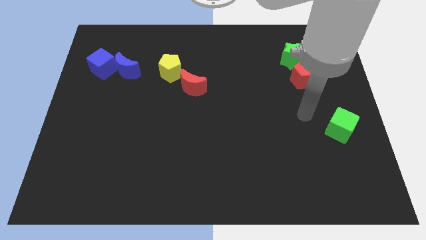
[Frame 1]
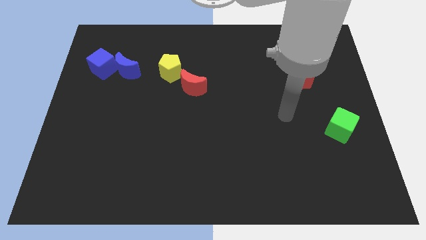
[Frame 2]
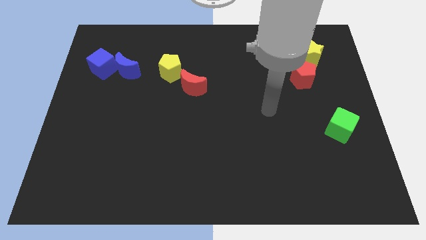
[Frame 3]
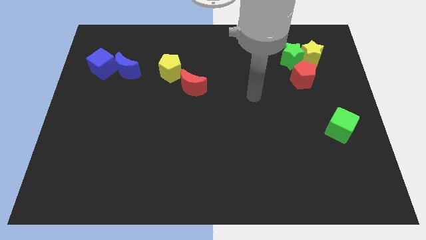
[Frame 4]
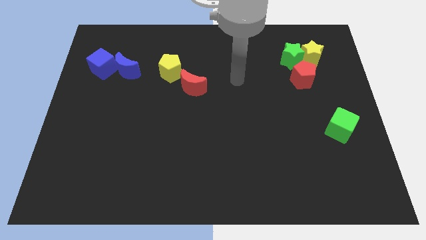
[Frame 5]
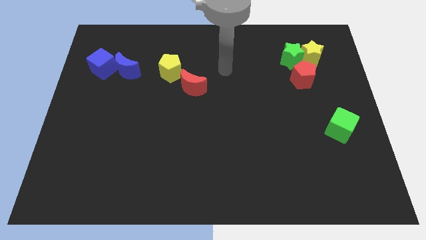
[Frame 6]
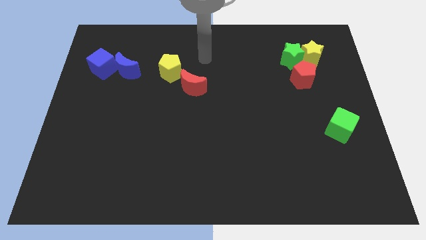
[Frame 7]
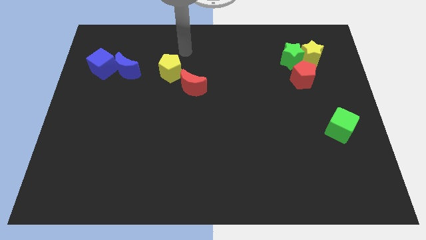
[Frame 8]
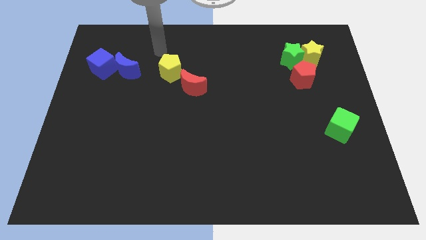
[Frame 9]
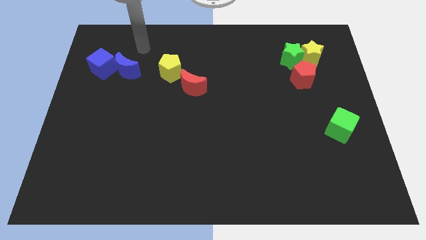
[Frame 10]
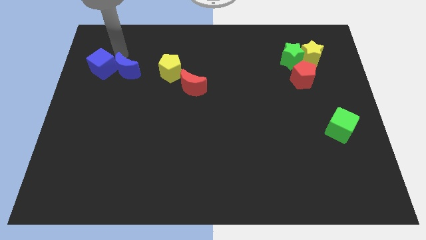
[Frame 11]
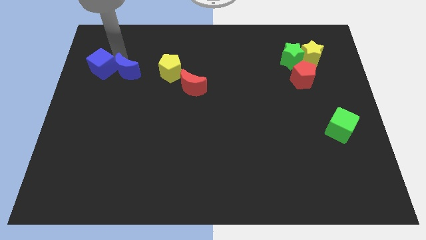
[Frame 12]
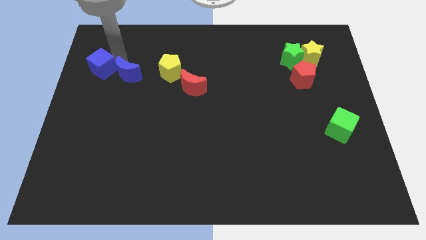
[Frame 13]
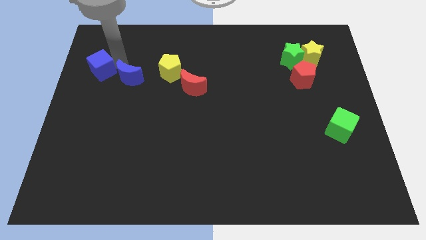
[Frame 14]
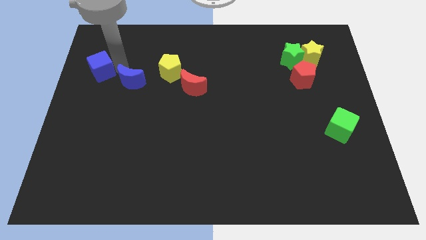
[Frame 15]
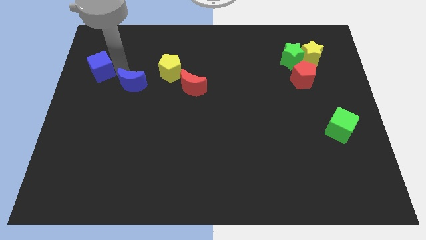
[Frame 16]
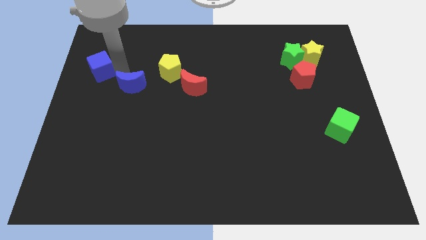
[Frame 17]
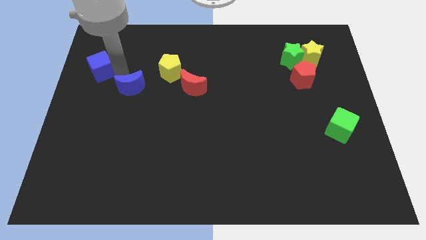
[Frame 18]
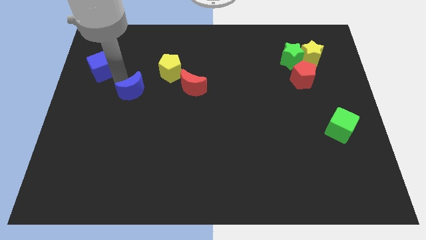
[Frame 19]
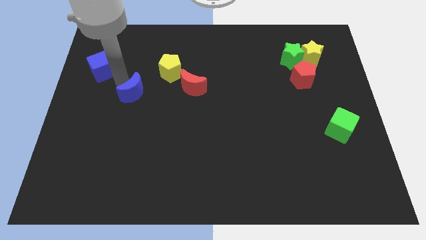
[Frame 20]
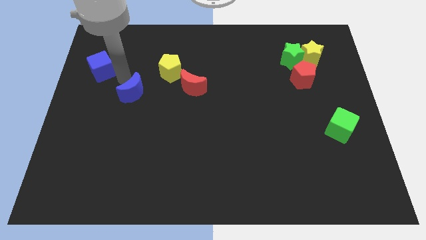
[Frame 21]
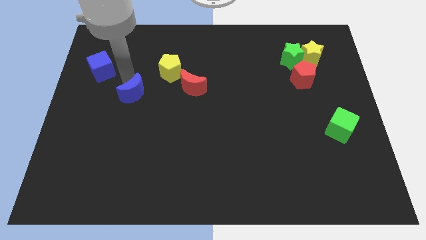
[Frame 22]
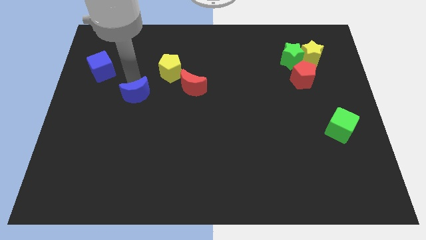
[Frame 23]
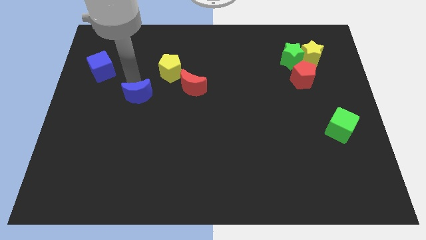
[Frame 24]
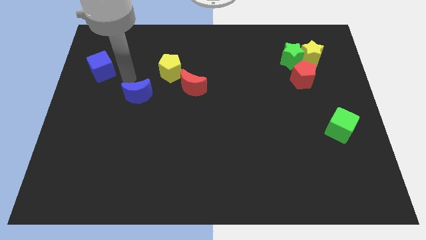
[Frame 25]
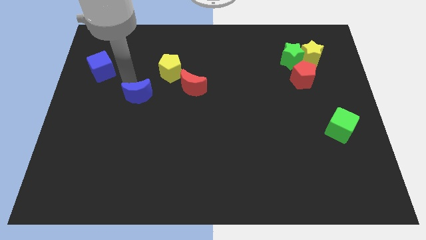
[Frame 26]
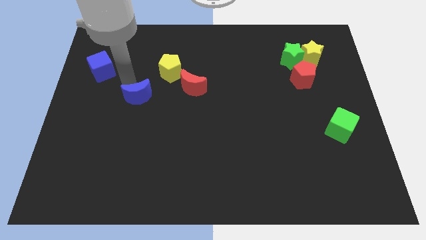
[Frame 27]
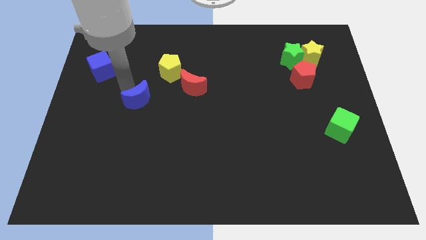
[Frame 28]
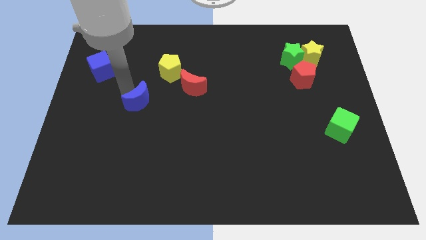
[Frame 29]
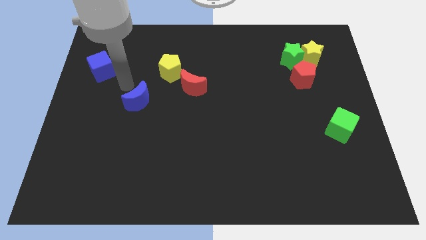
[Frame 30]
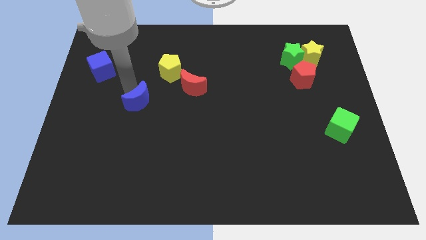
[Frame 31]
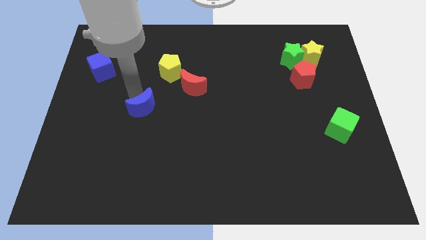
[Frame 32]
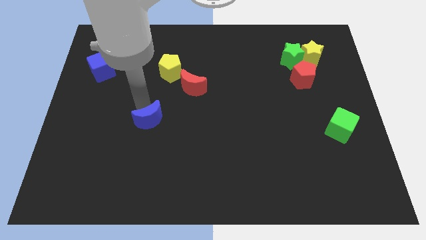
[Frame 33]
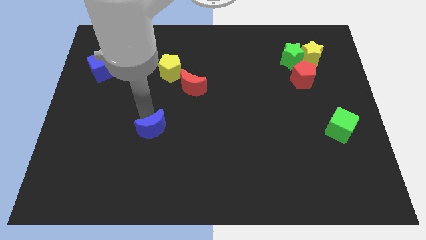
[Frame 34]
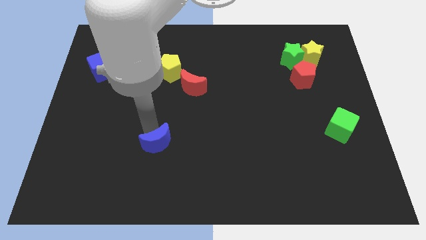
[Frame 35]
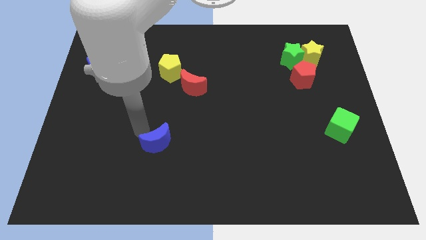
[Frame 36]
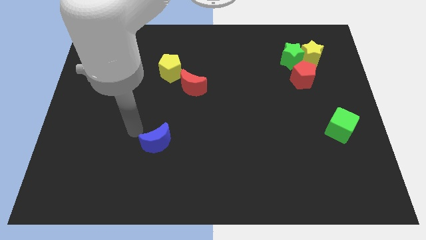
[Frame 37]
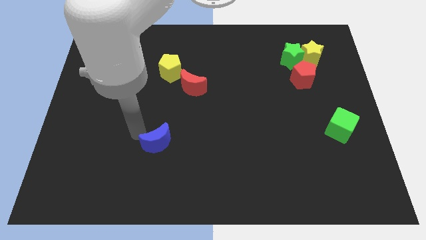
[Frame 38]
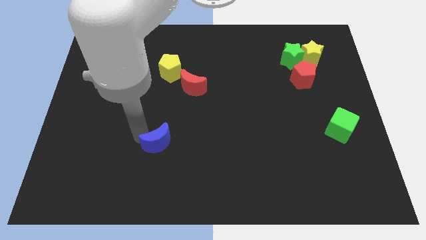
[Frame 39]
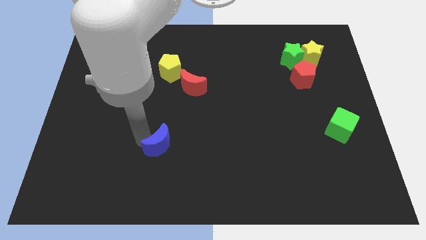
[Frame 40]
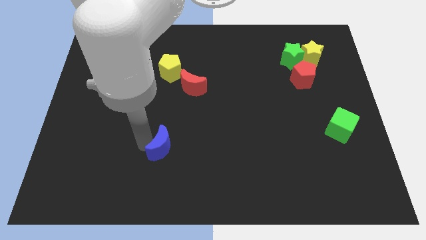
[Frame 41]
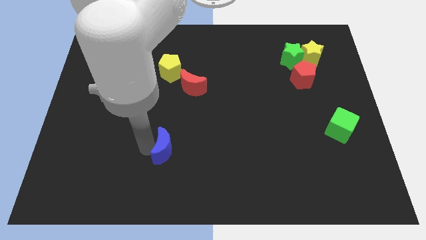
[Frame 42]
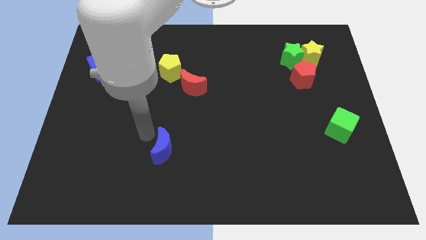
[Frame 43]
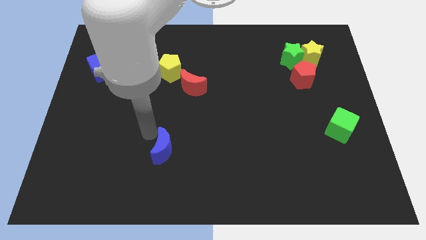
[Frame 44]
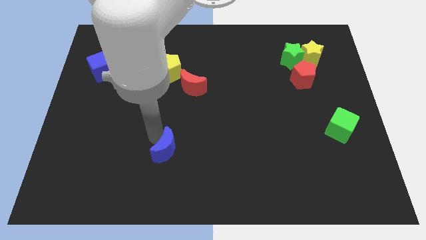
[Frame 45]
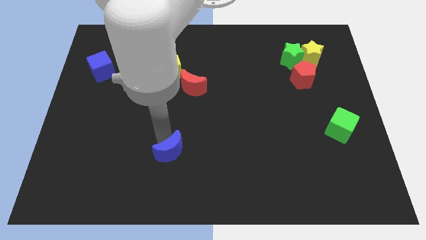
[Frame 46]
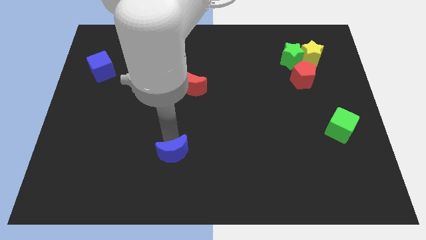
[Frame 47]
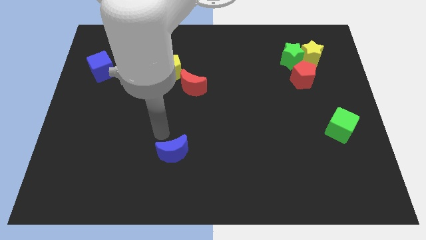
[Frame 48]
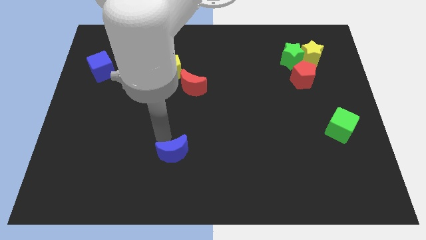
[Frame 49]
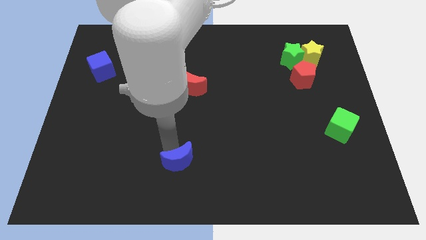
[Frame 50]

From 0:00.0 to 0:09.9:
slide the blue moon to the bottom

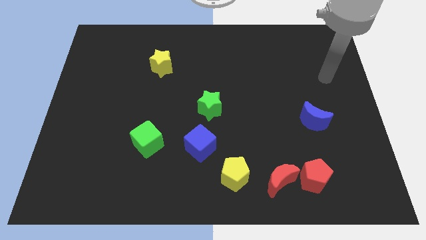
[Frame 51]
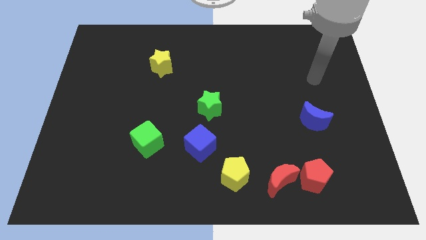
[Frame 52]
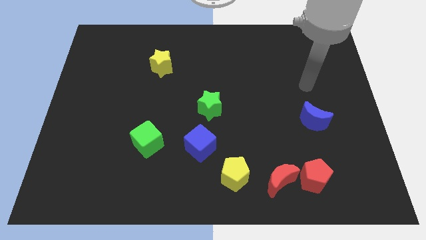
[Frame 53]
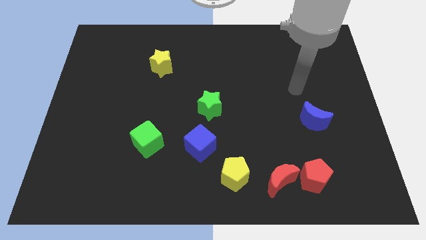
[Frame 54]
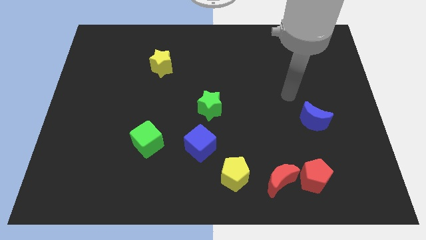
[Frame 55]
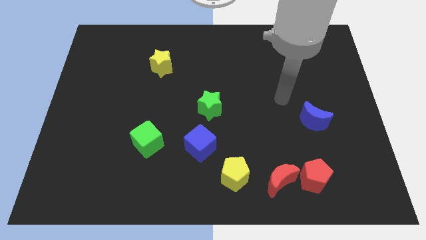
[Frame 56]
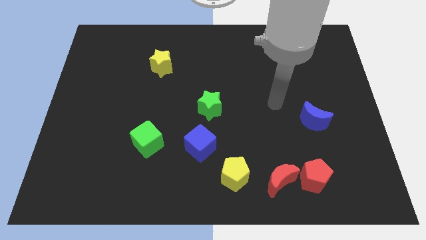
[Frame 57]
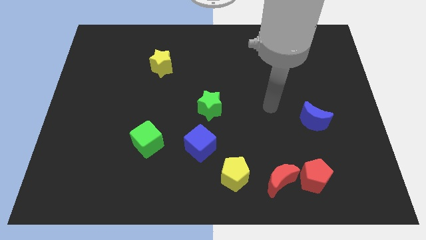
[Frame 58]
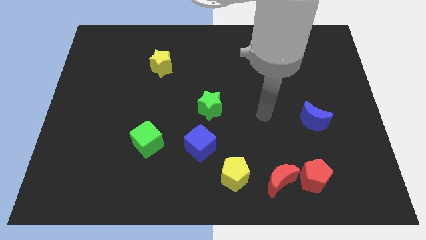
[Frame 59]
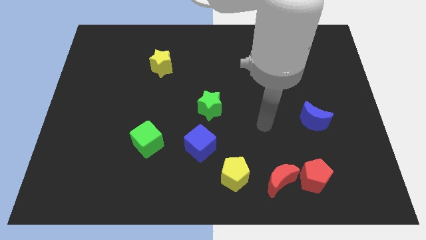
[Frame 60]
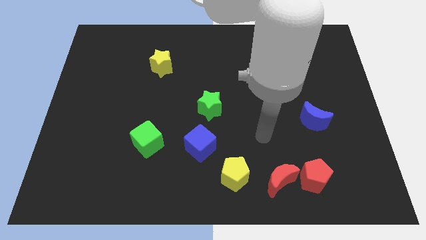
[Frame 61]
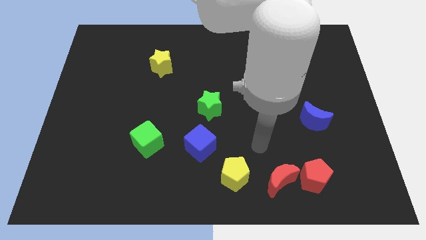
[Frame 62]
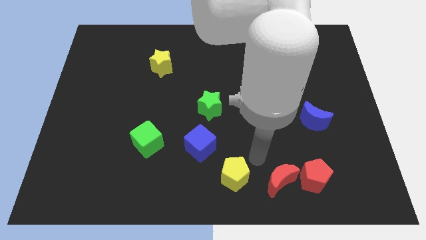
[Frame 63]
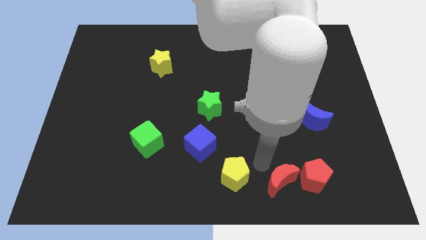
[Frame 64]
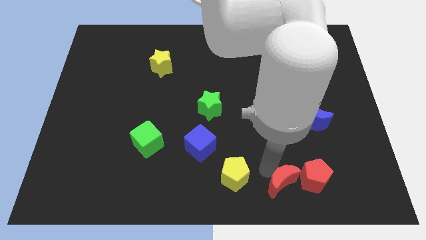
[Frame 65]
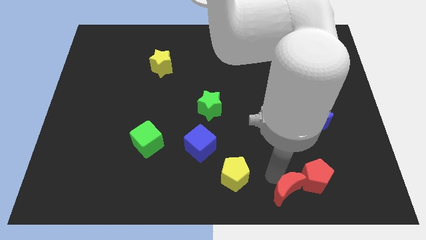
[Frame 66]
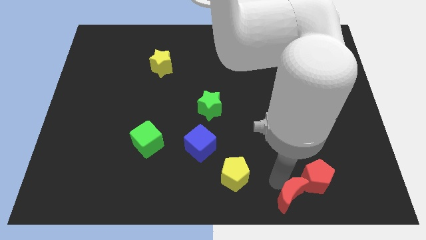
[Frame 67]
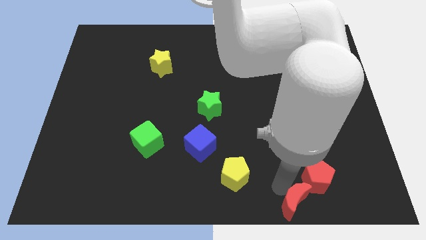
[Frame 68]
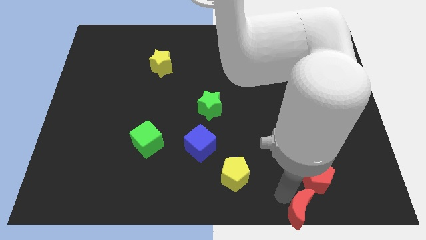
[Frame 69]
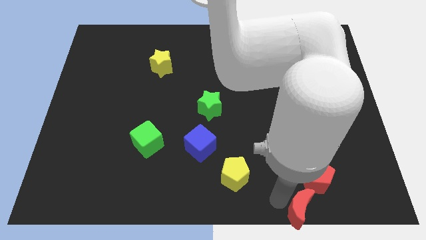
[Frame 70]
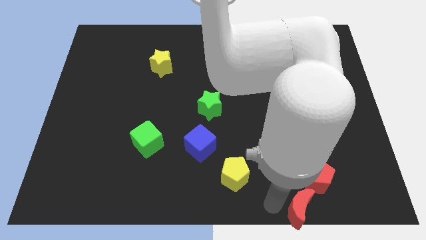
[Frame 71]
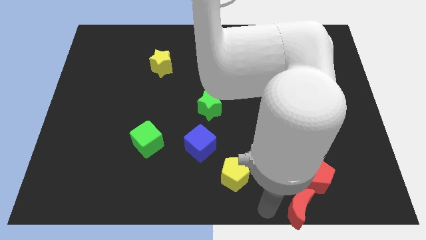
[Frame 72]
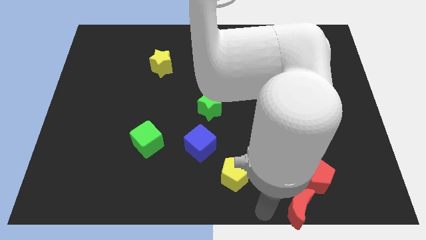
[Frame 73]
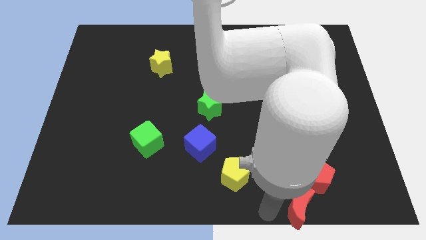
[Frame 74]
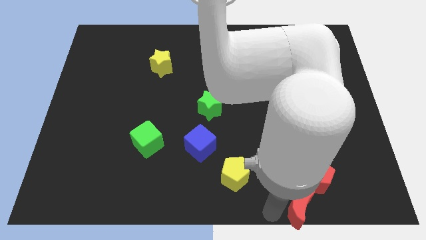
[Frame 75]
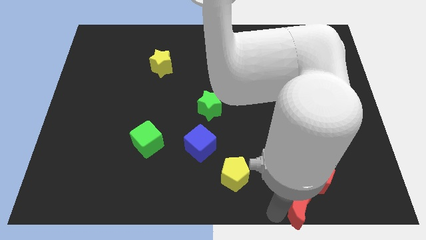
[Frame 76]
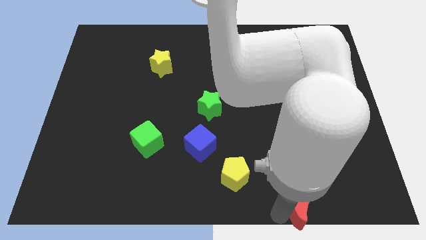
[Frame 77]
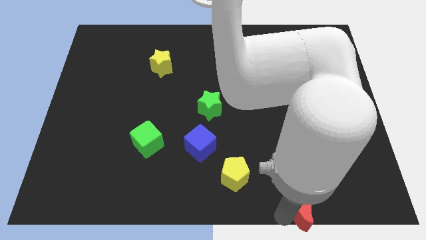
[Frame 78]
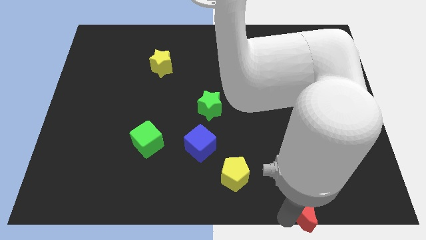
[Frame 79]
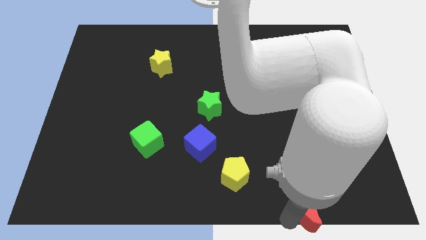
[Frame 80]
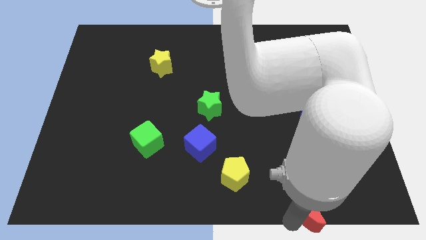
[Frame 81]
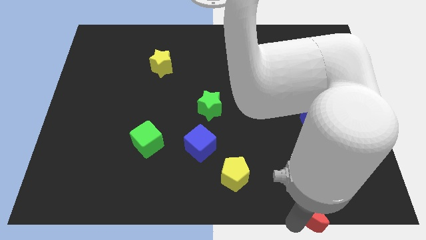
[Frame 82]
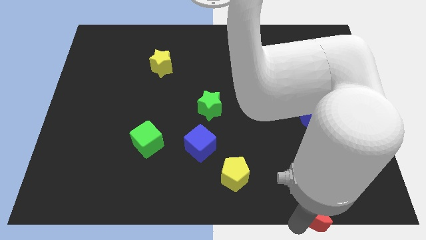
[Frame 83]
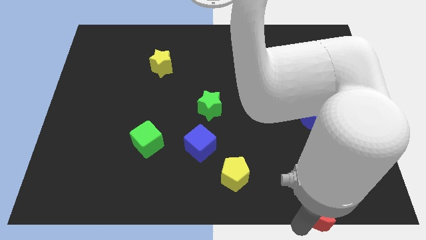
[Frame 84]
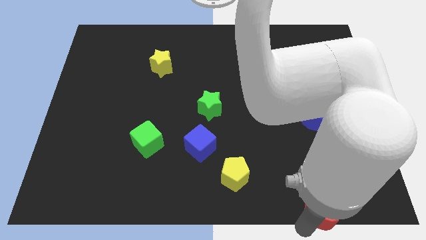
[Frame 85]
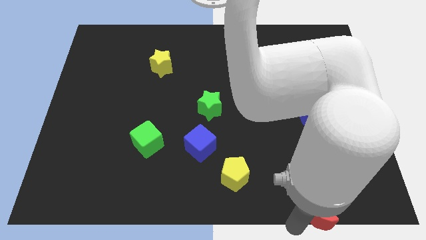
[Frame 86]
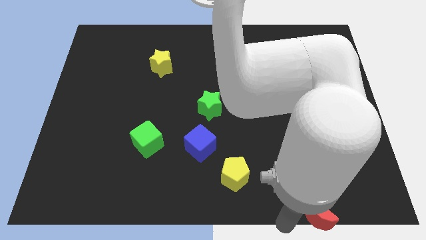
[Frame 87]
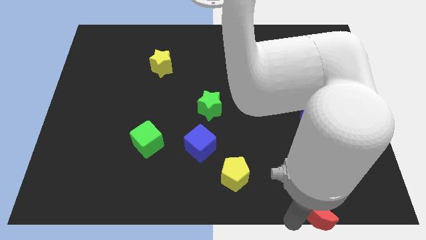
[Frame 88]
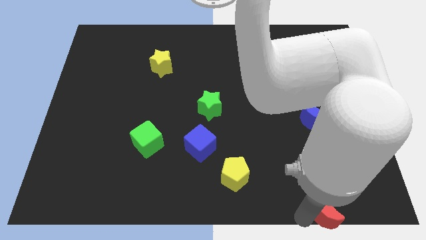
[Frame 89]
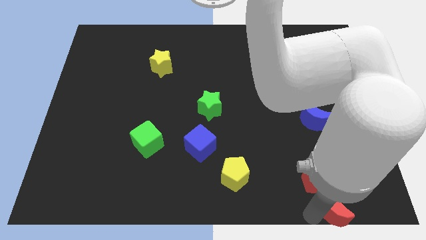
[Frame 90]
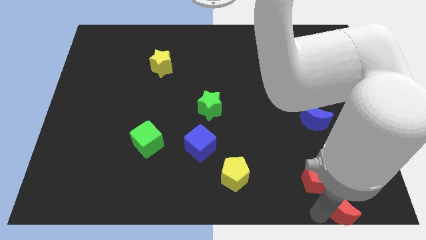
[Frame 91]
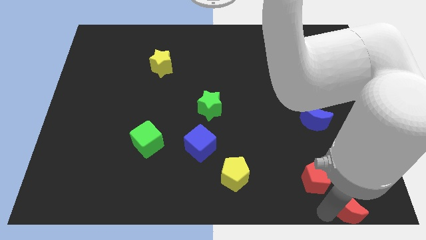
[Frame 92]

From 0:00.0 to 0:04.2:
slide the red moon to the bottom right
